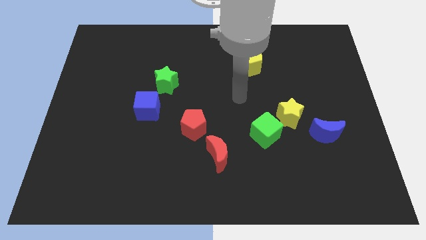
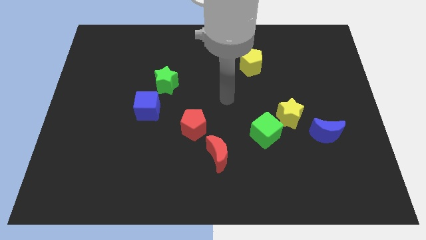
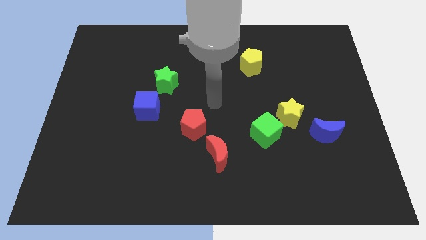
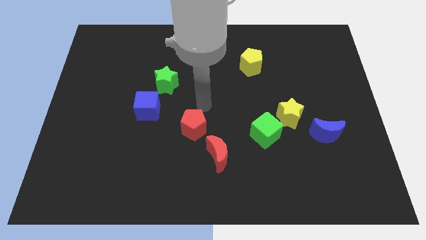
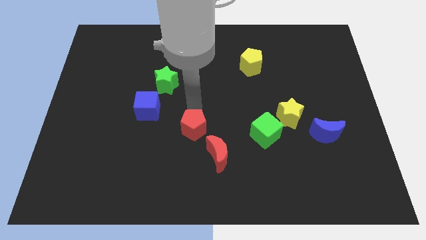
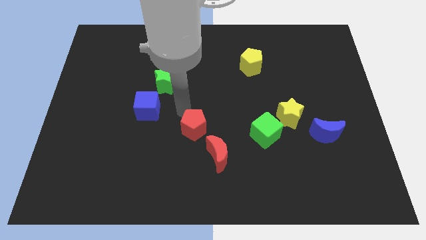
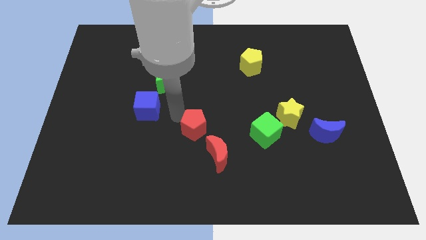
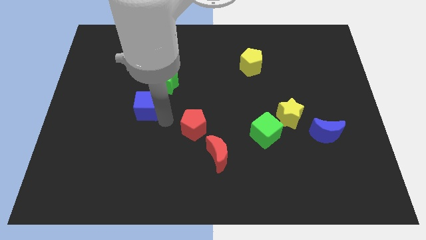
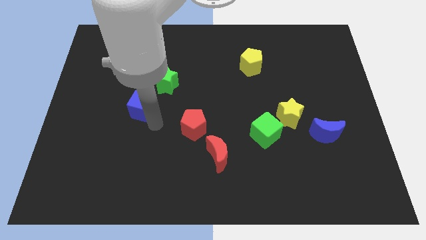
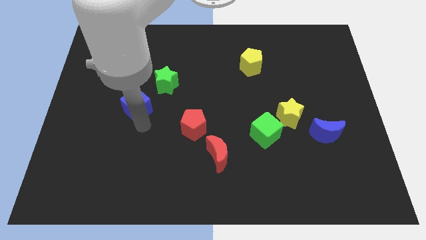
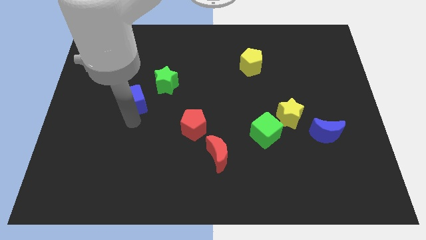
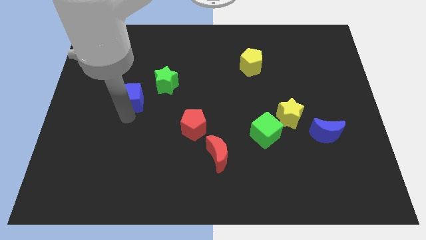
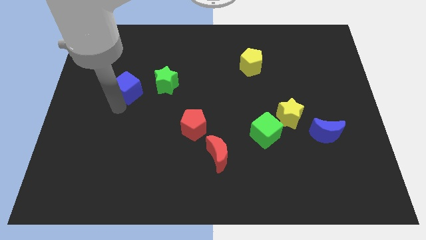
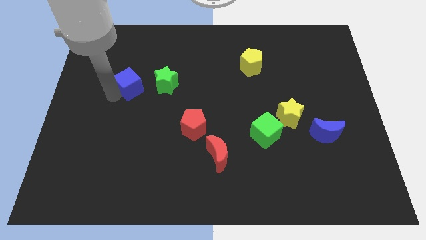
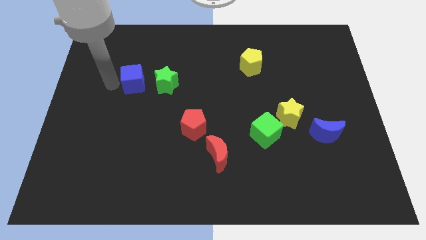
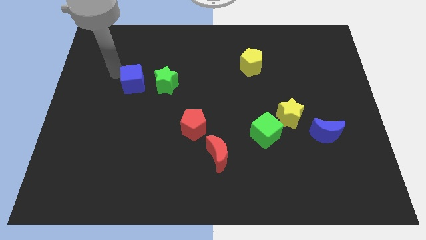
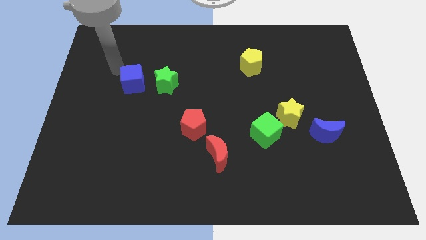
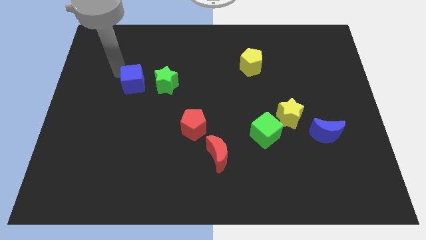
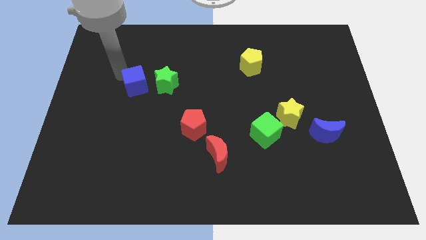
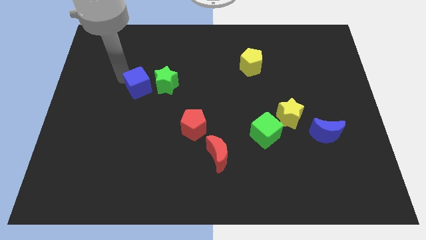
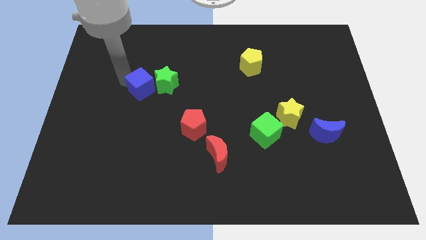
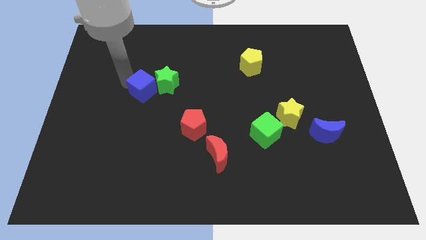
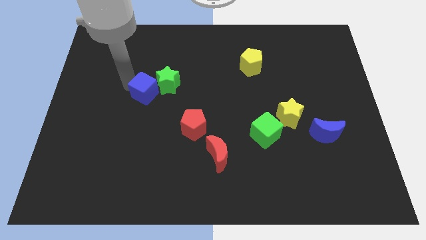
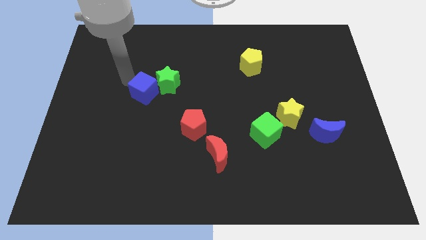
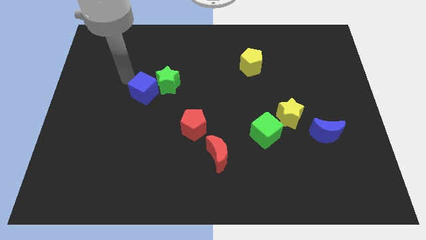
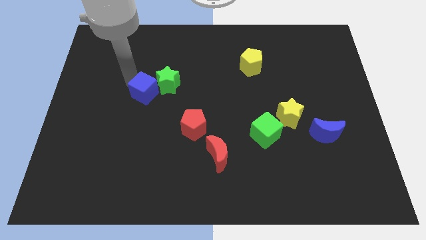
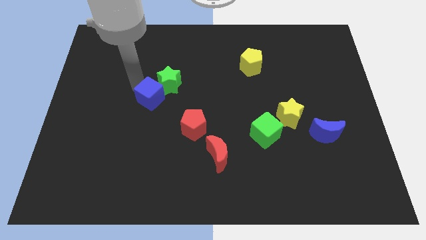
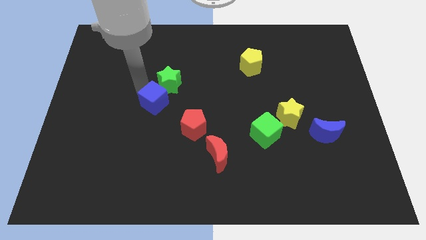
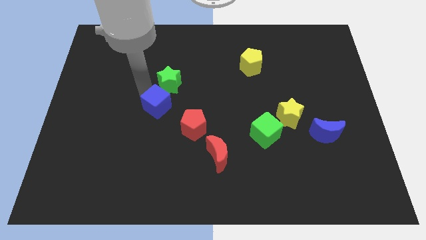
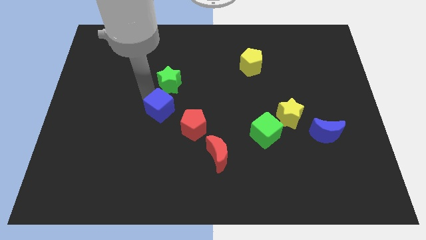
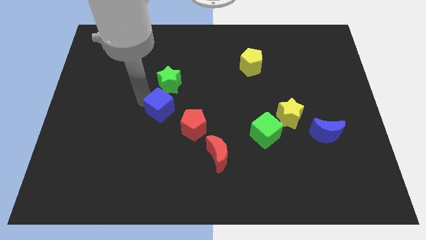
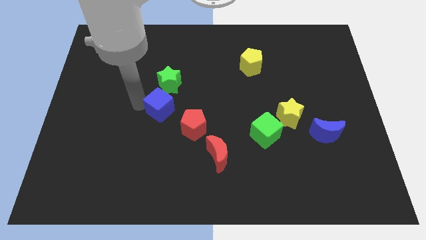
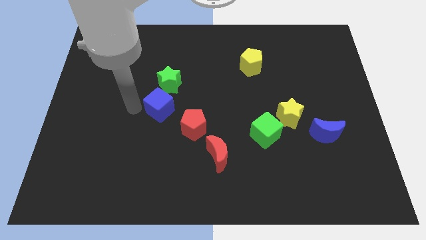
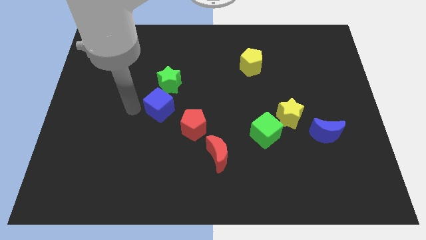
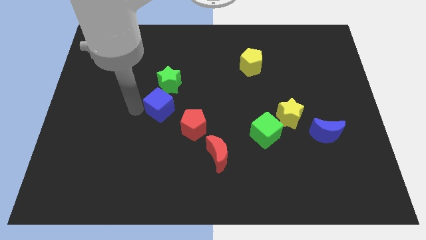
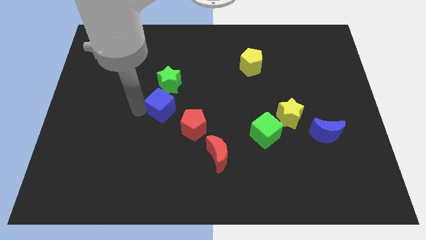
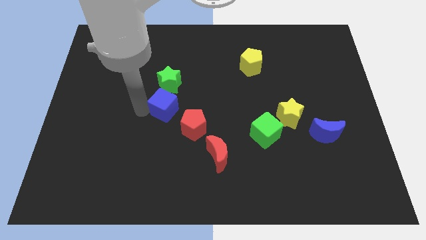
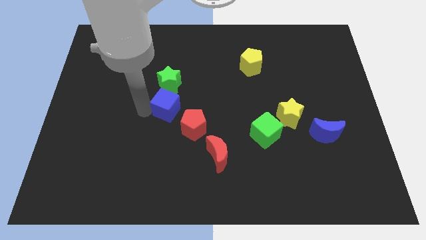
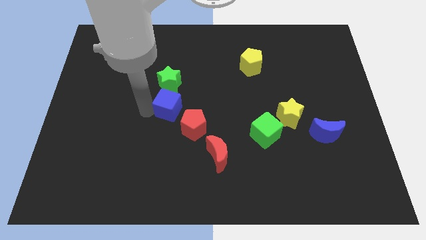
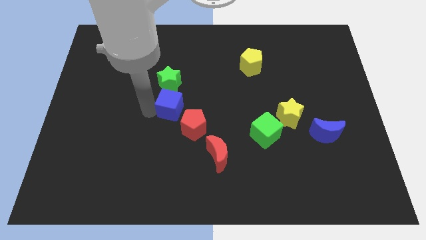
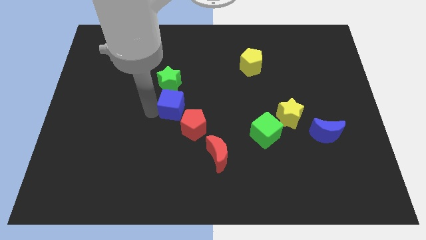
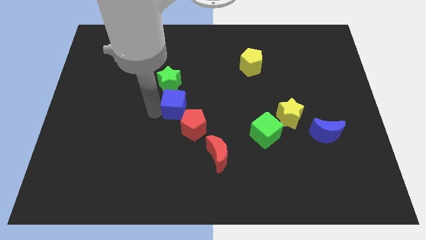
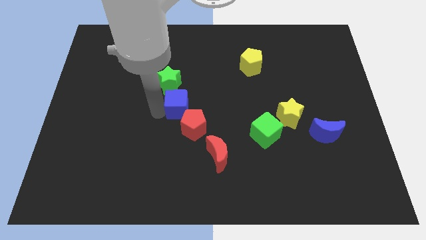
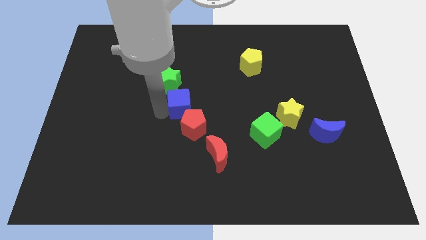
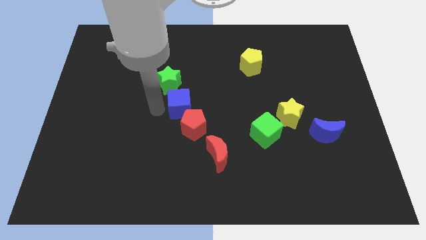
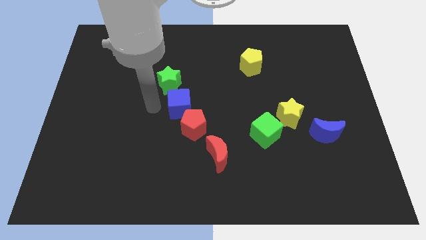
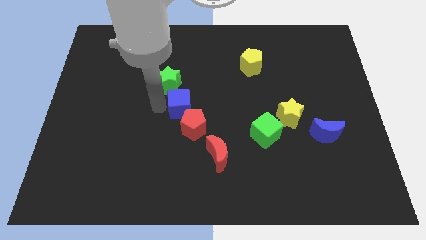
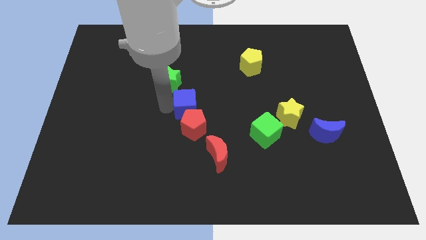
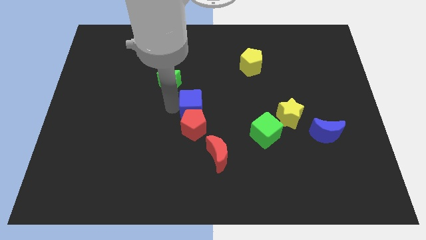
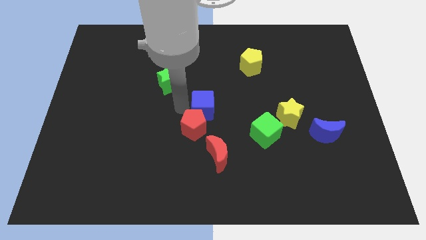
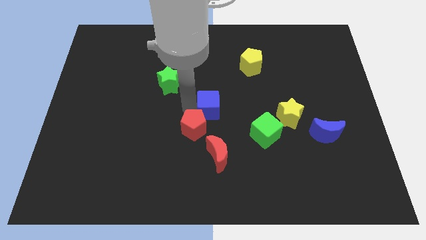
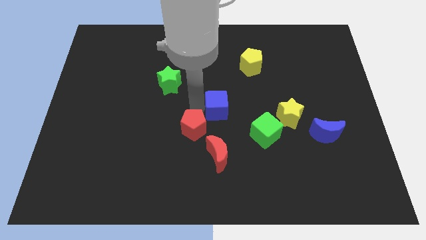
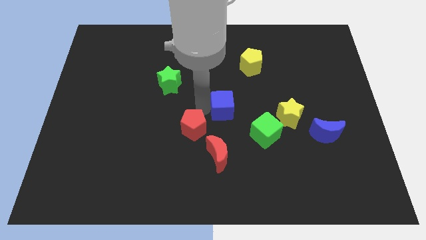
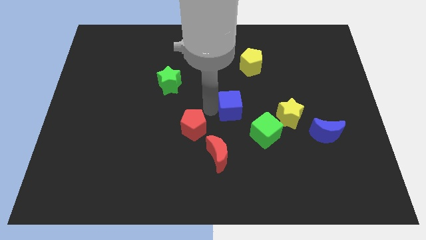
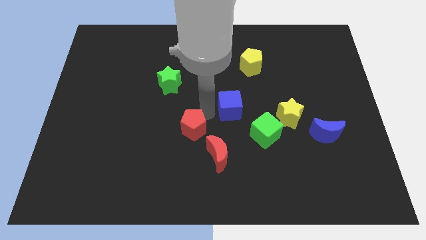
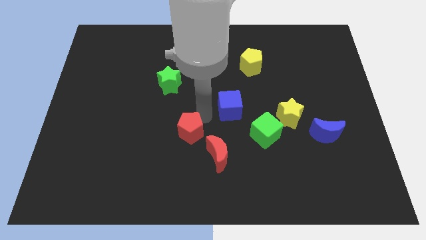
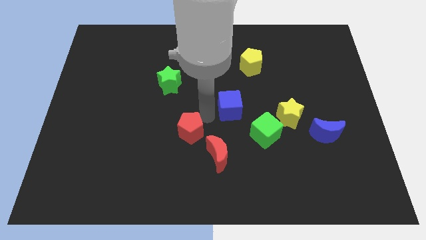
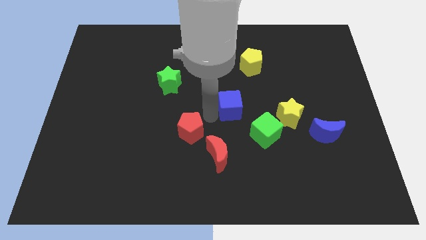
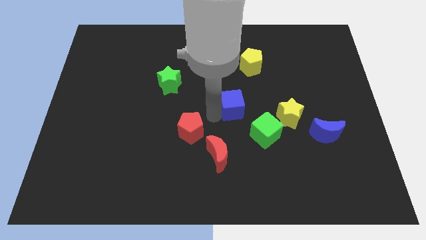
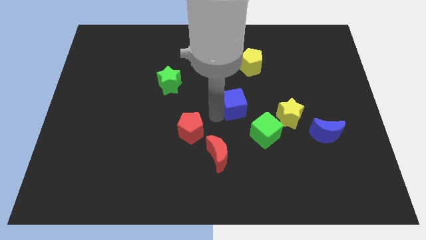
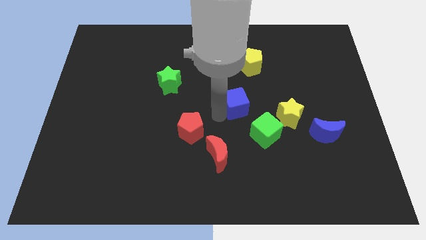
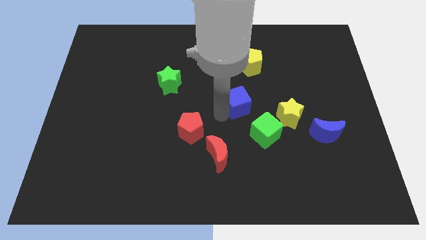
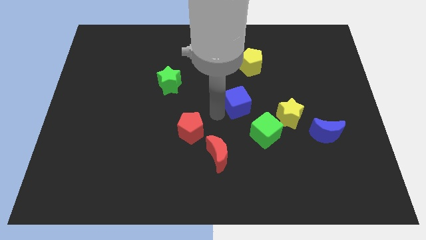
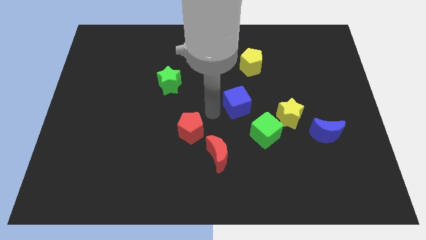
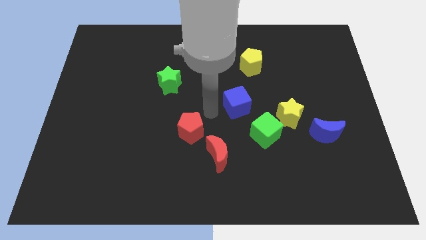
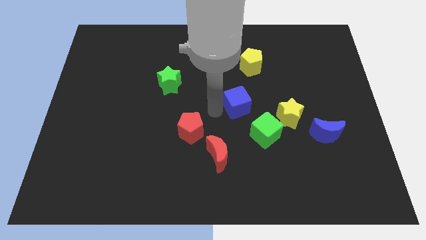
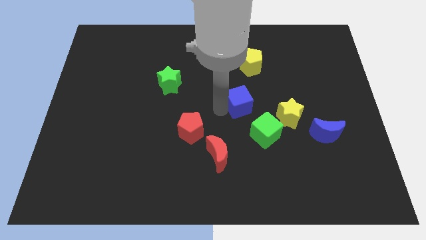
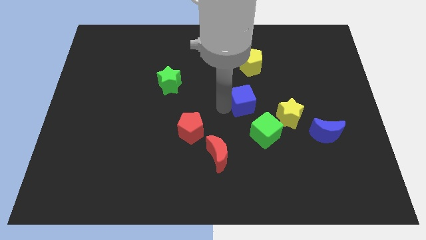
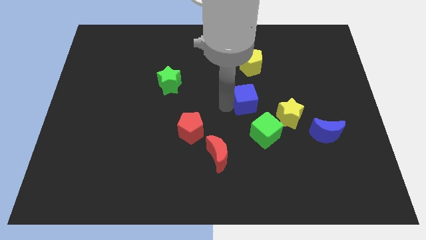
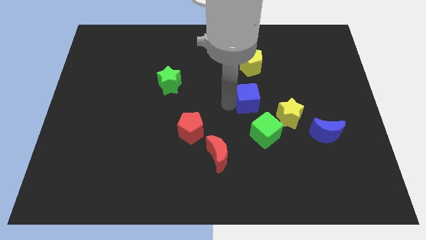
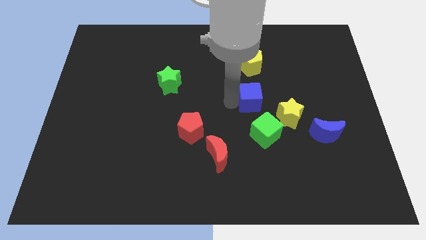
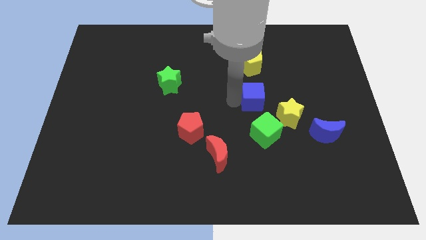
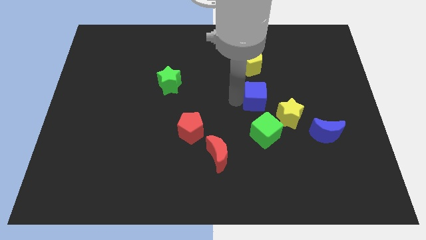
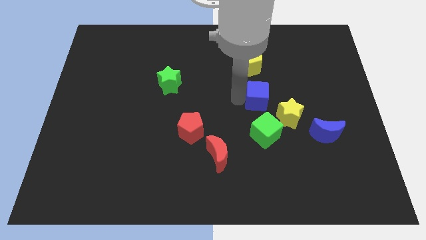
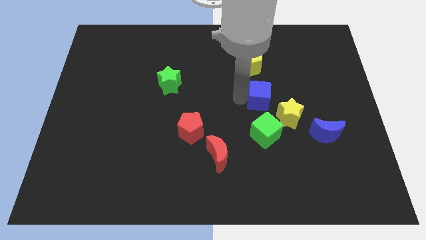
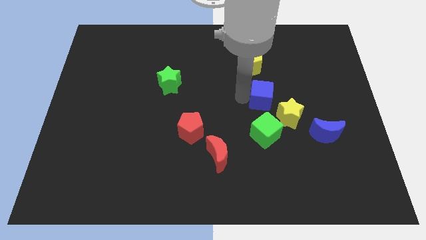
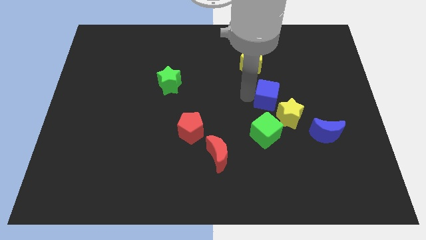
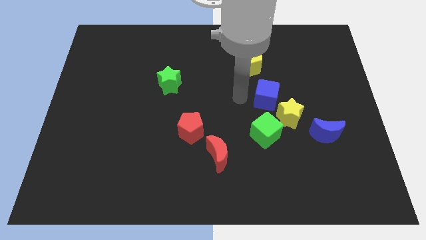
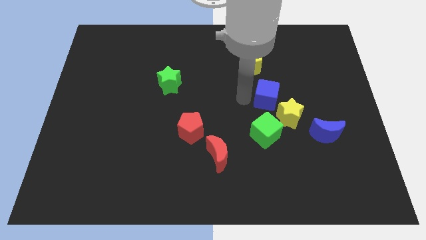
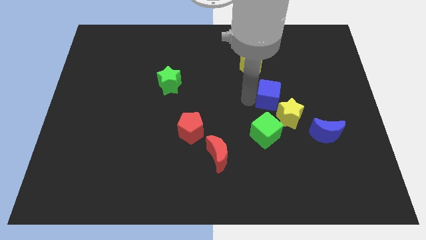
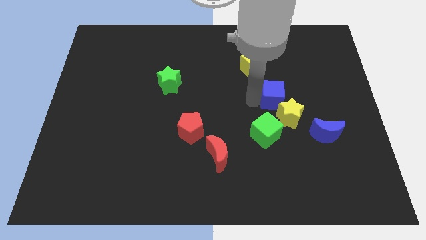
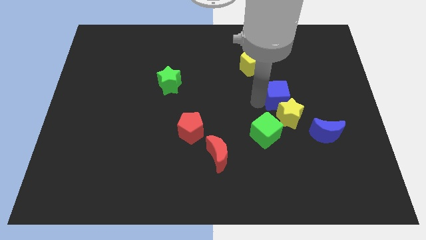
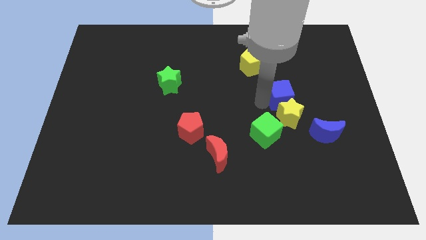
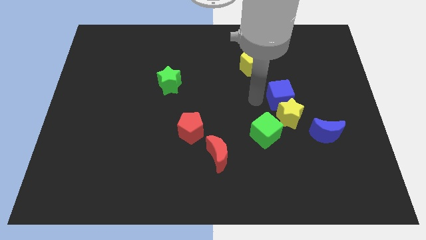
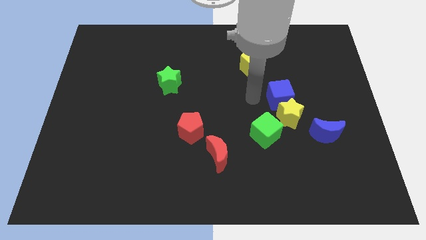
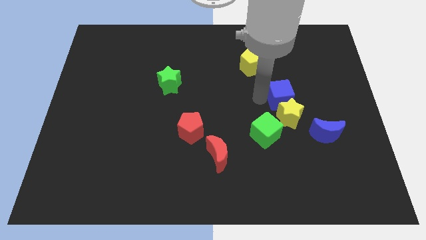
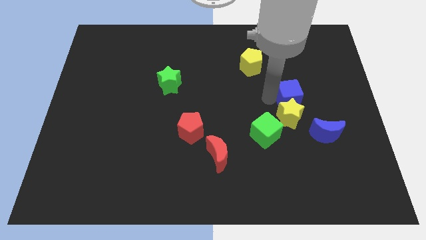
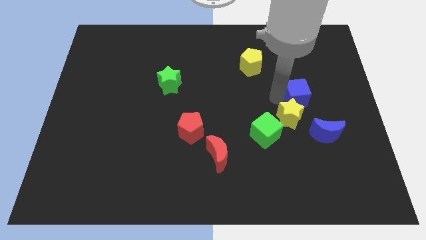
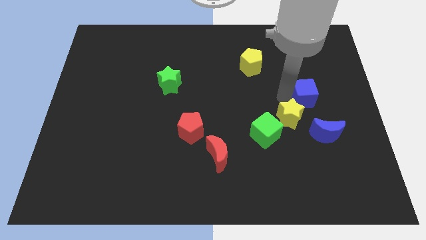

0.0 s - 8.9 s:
slide the blue cube to the top side of the blue moon
